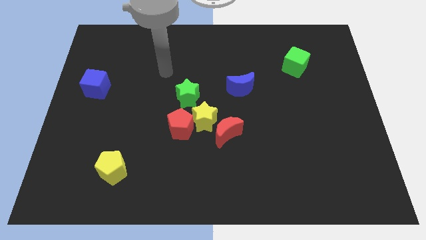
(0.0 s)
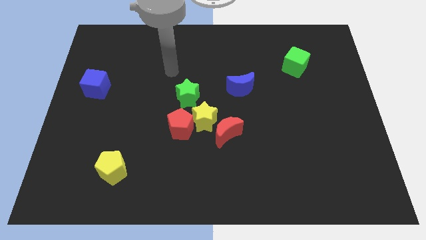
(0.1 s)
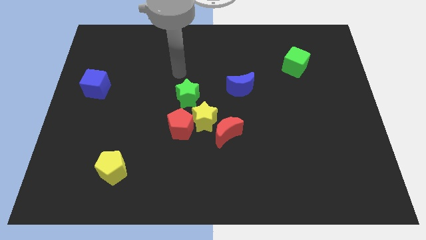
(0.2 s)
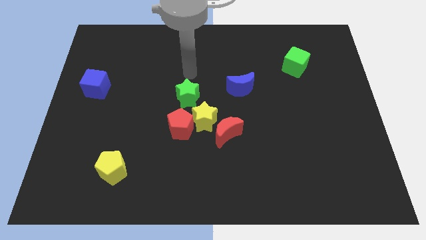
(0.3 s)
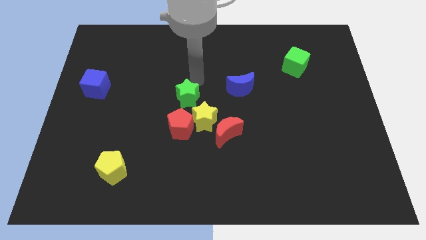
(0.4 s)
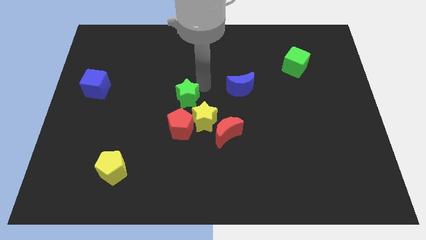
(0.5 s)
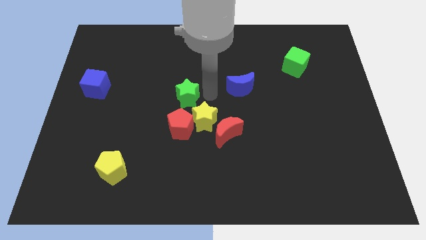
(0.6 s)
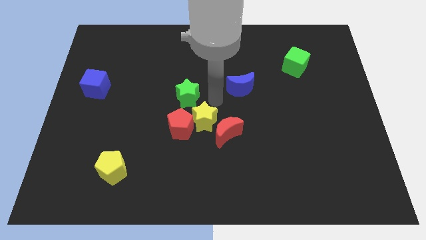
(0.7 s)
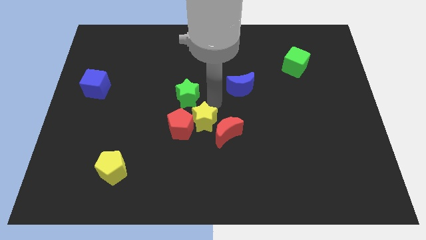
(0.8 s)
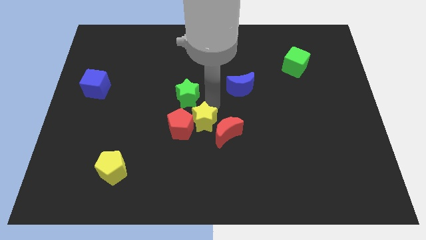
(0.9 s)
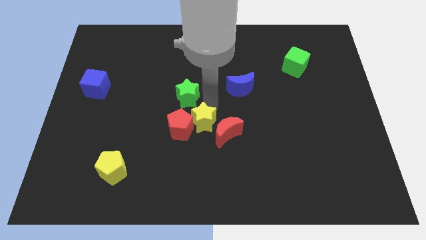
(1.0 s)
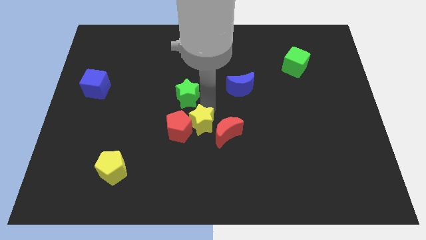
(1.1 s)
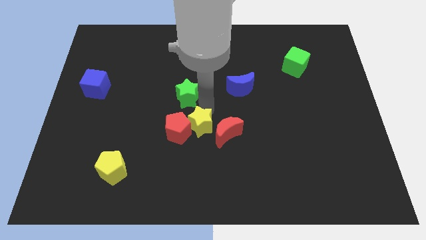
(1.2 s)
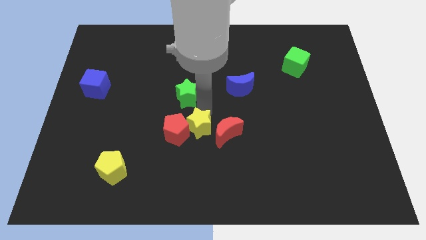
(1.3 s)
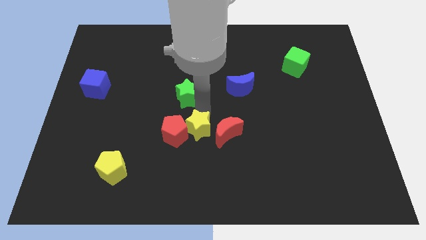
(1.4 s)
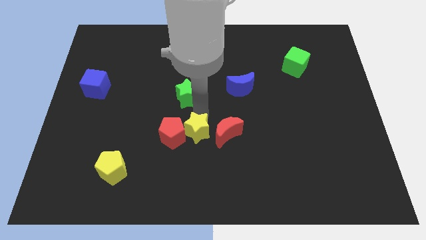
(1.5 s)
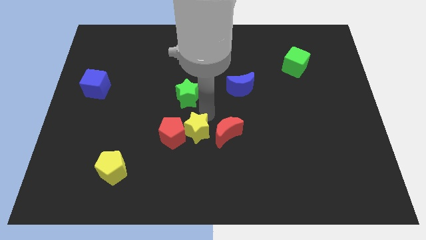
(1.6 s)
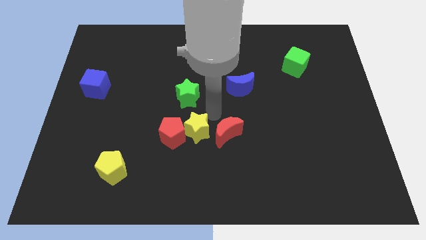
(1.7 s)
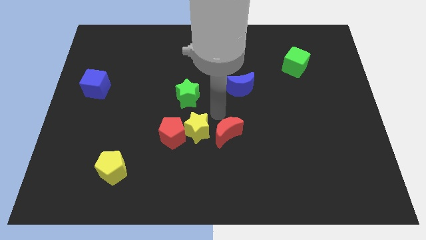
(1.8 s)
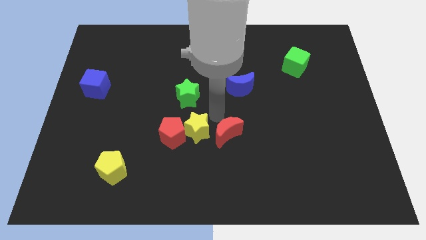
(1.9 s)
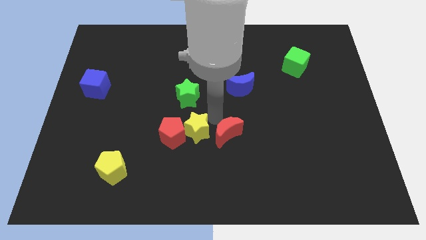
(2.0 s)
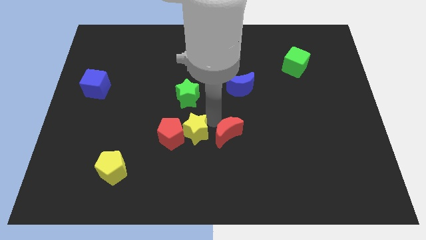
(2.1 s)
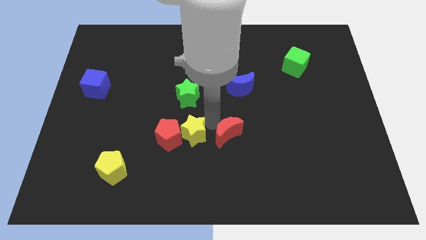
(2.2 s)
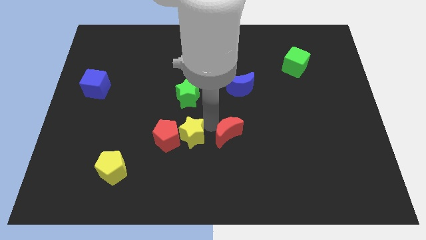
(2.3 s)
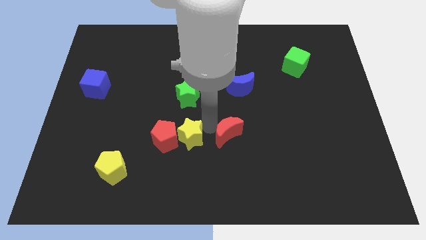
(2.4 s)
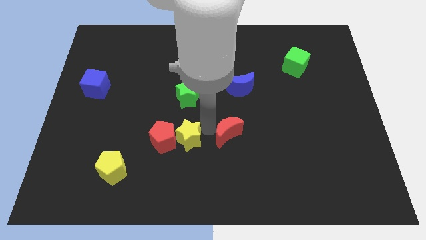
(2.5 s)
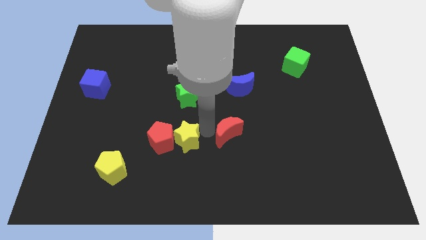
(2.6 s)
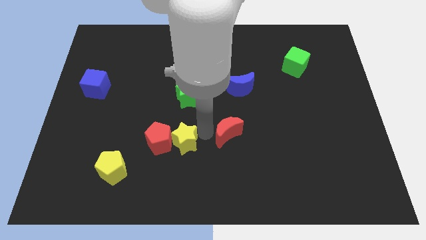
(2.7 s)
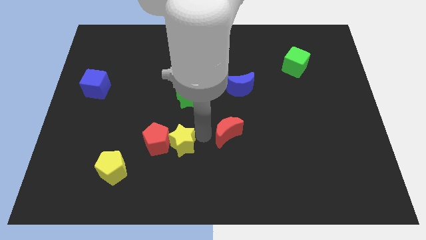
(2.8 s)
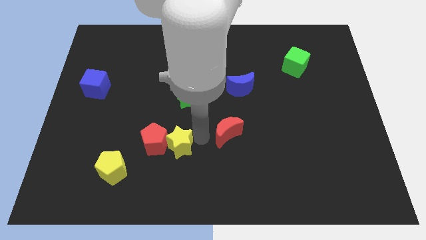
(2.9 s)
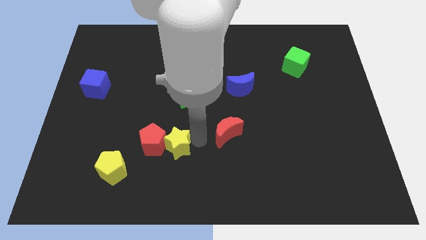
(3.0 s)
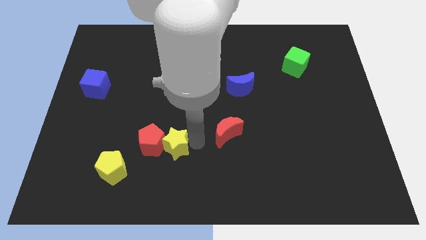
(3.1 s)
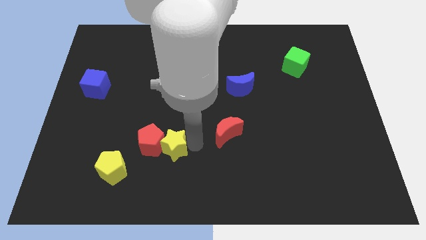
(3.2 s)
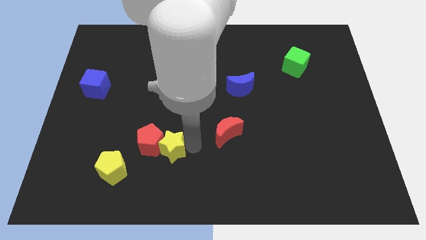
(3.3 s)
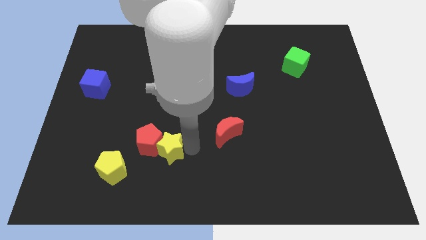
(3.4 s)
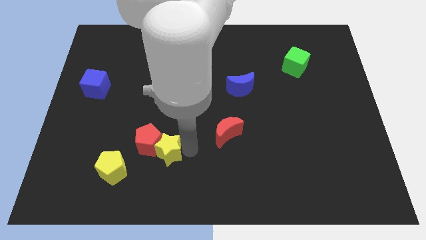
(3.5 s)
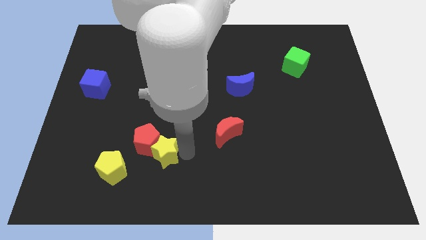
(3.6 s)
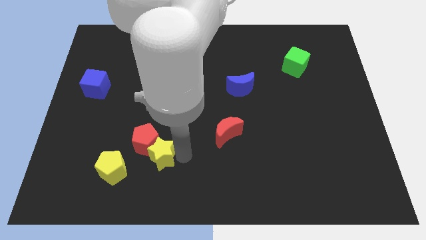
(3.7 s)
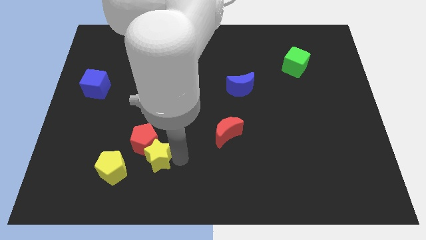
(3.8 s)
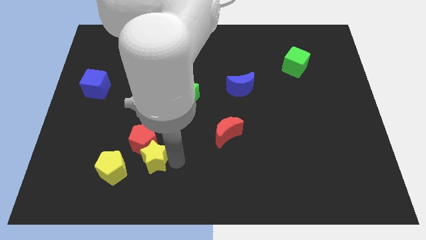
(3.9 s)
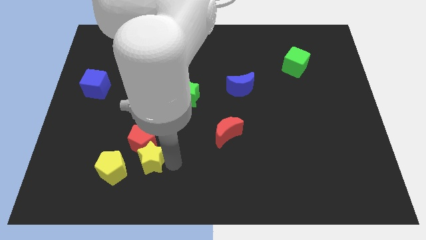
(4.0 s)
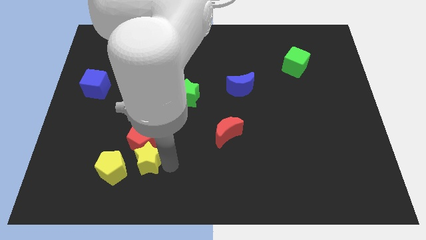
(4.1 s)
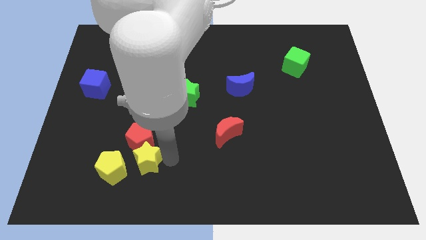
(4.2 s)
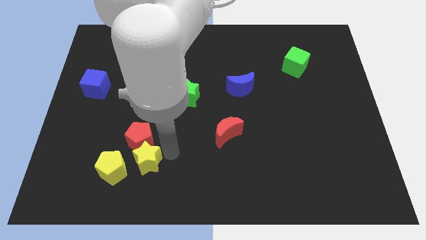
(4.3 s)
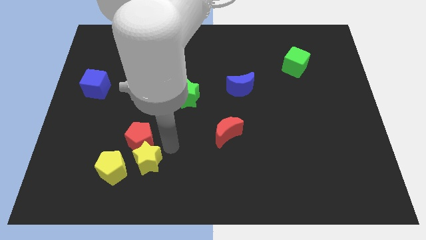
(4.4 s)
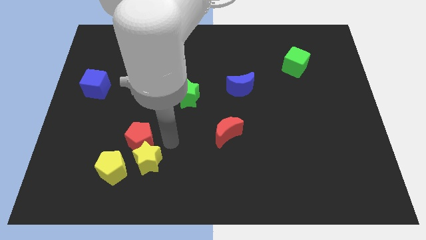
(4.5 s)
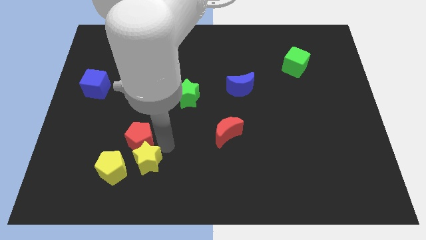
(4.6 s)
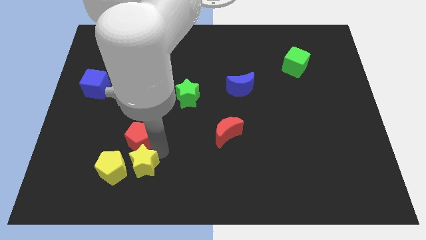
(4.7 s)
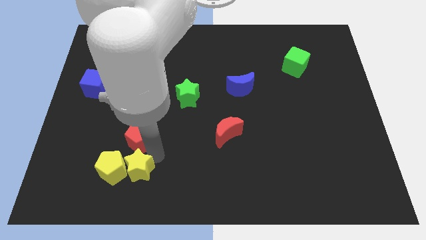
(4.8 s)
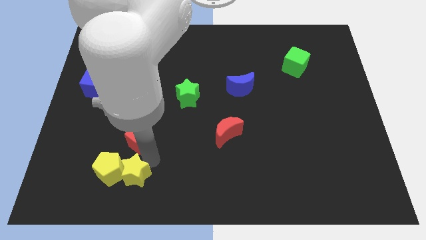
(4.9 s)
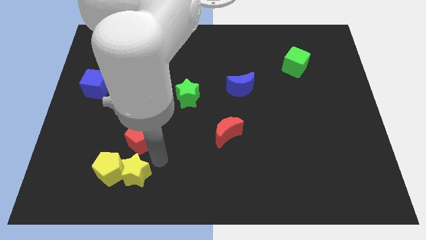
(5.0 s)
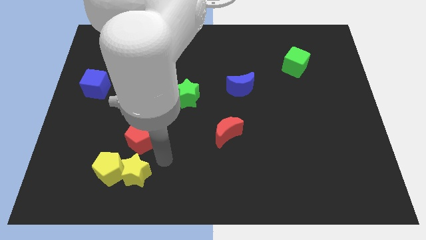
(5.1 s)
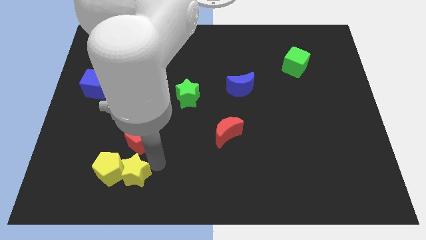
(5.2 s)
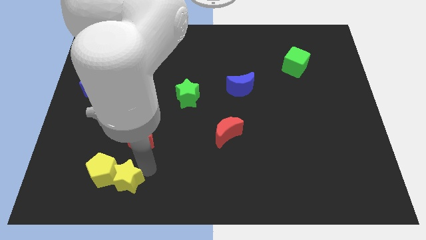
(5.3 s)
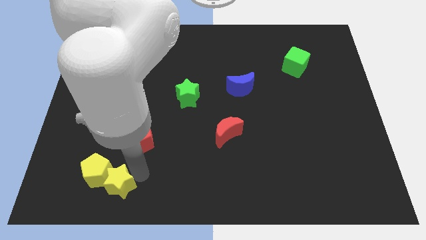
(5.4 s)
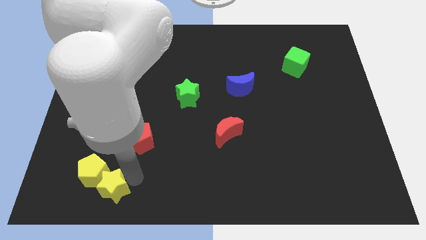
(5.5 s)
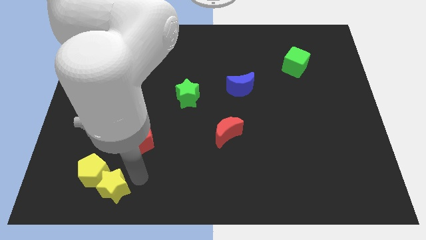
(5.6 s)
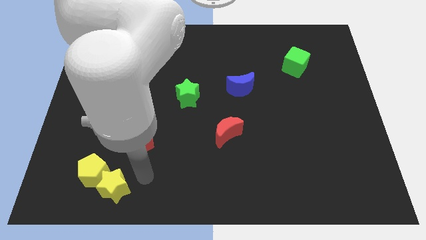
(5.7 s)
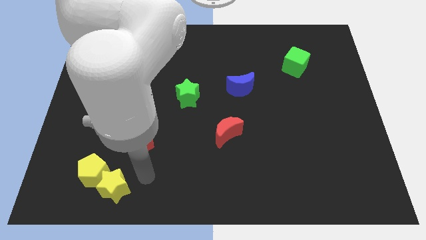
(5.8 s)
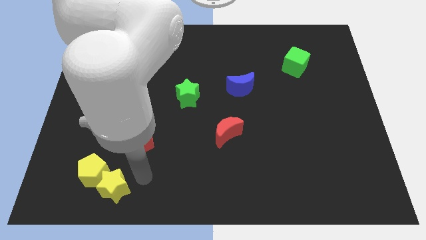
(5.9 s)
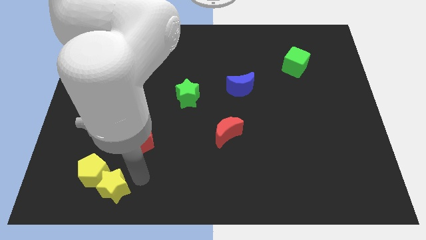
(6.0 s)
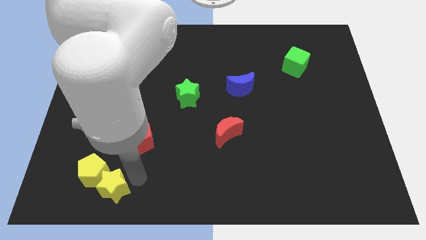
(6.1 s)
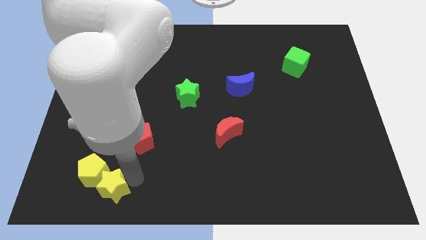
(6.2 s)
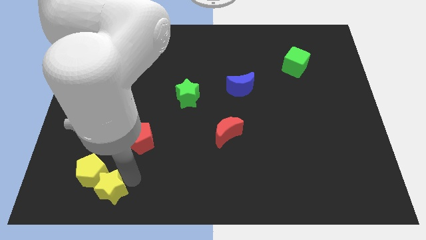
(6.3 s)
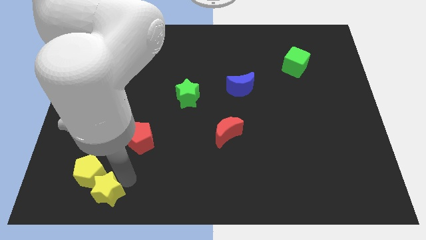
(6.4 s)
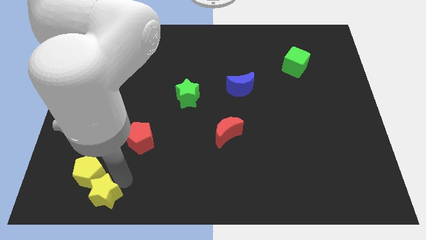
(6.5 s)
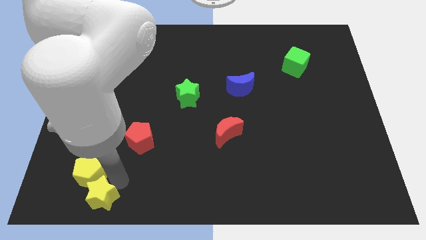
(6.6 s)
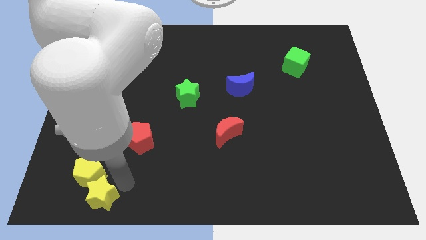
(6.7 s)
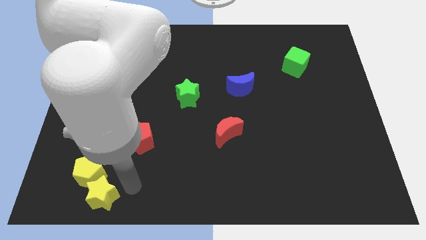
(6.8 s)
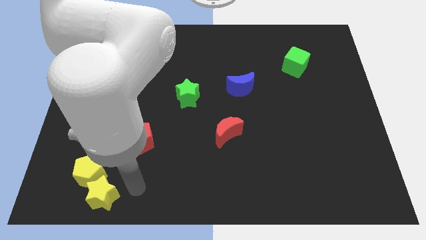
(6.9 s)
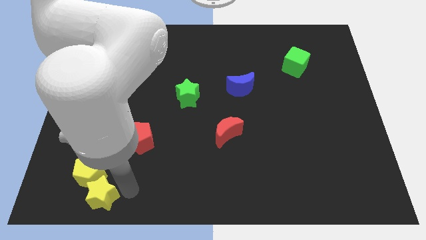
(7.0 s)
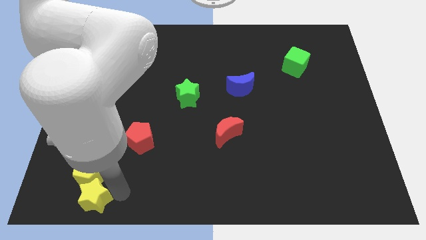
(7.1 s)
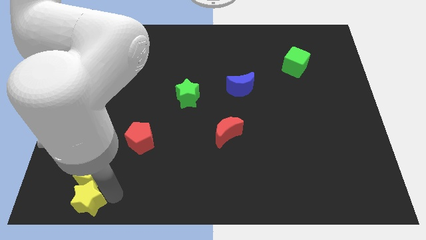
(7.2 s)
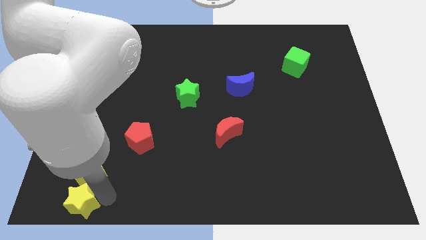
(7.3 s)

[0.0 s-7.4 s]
put the yellow star to the lower left corner
